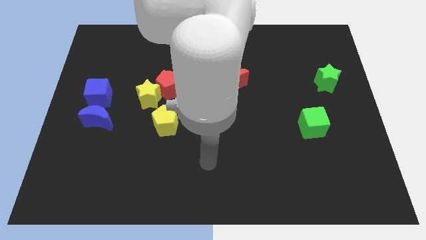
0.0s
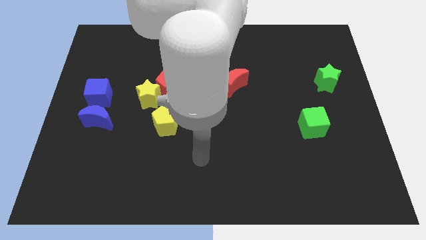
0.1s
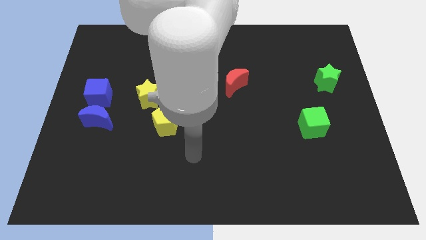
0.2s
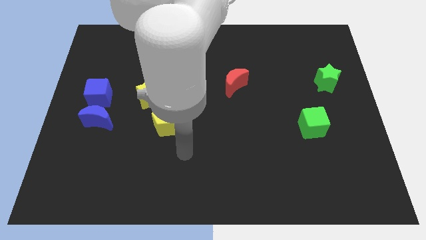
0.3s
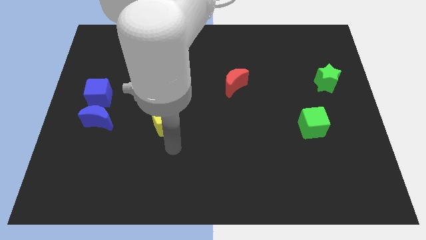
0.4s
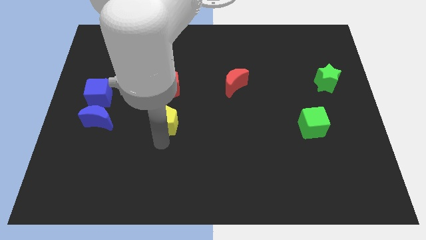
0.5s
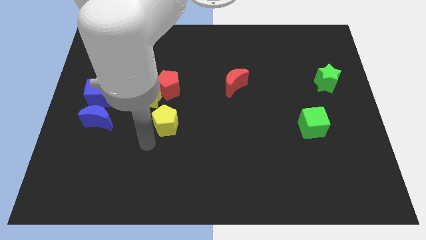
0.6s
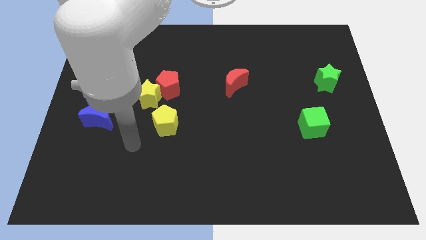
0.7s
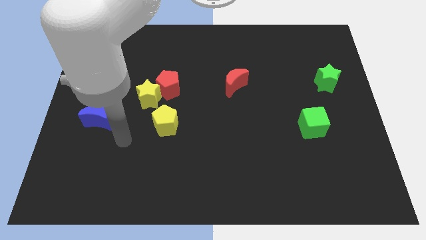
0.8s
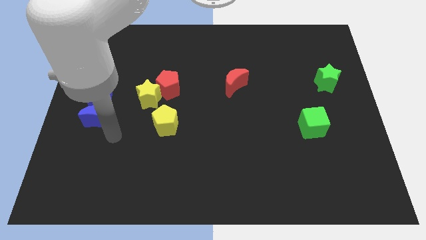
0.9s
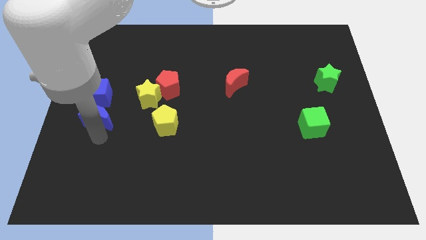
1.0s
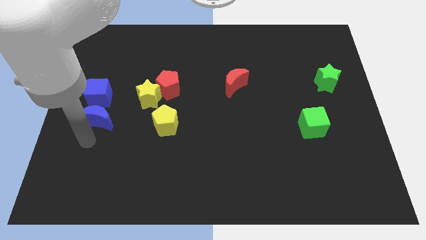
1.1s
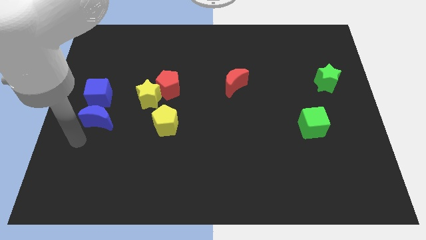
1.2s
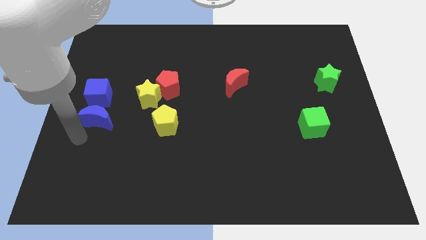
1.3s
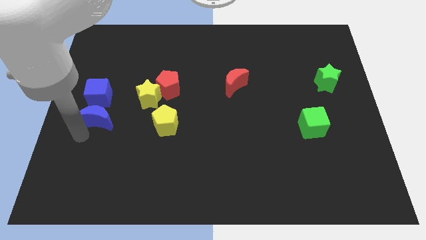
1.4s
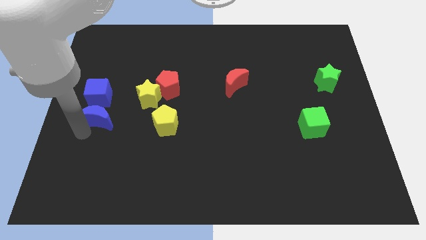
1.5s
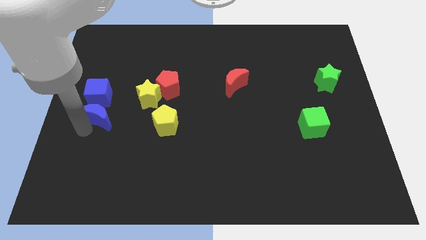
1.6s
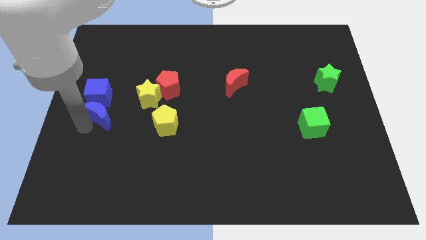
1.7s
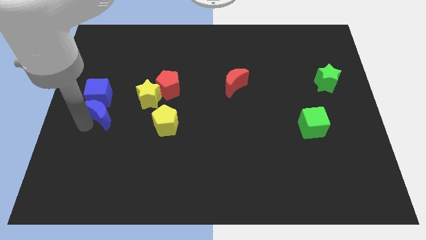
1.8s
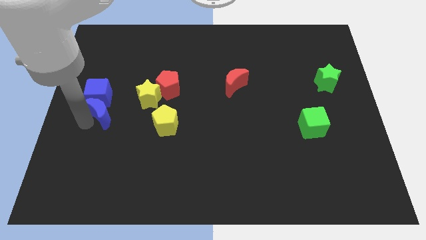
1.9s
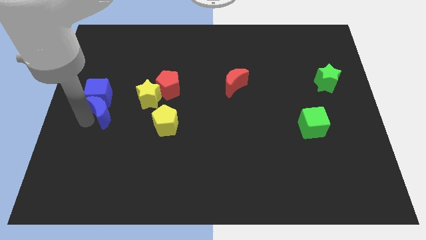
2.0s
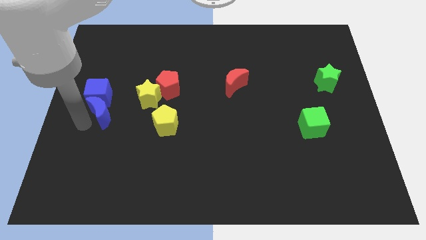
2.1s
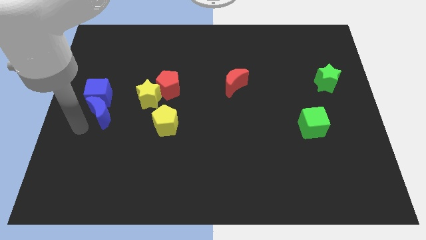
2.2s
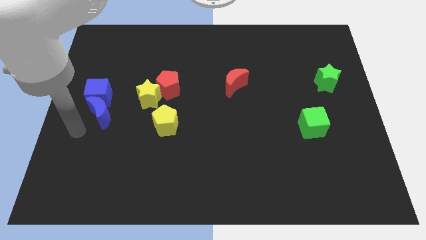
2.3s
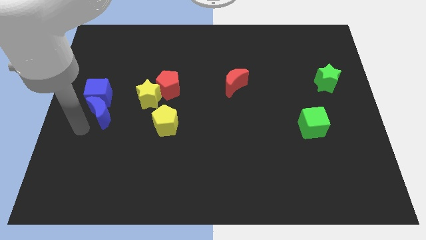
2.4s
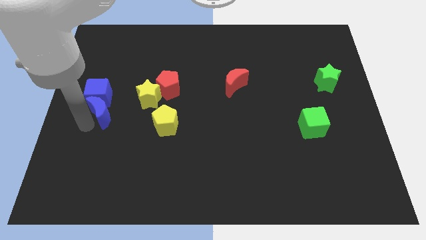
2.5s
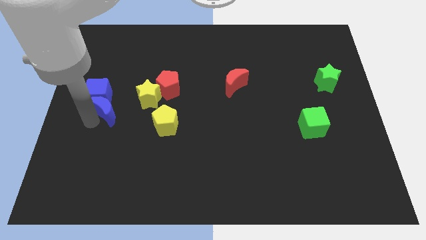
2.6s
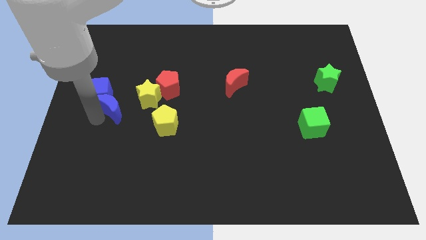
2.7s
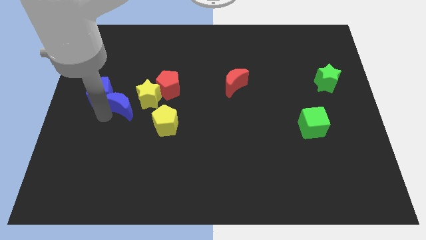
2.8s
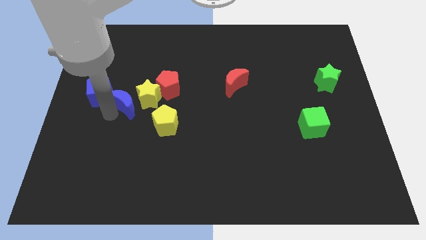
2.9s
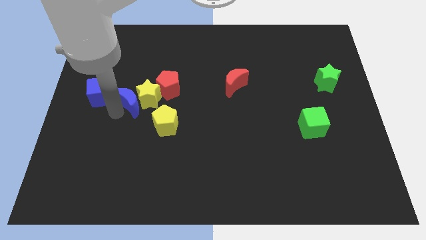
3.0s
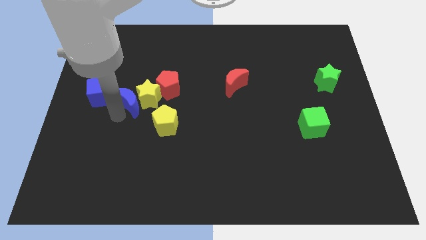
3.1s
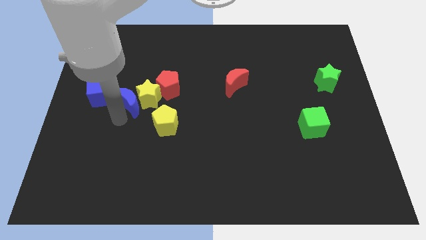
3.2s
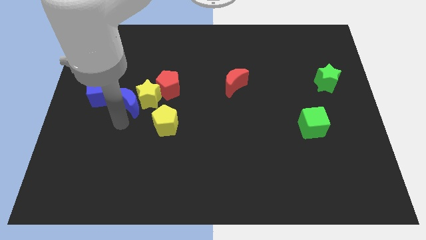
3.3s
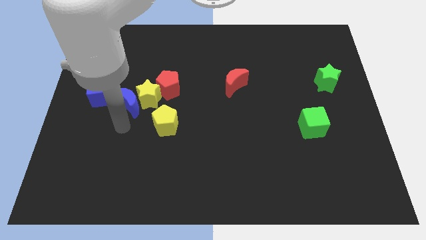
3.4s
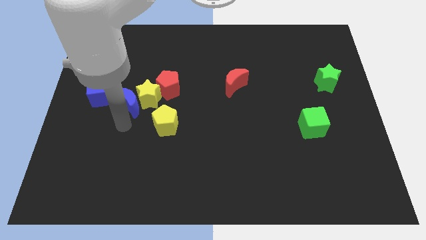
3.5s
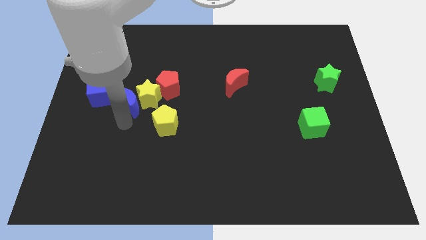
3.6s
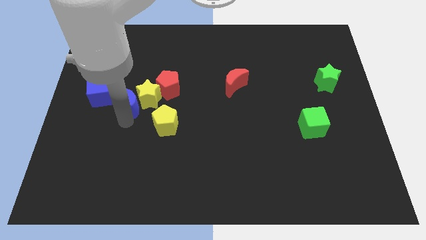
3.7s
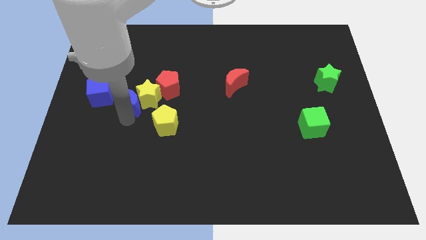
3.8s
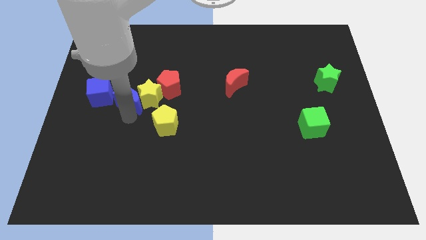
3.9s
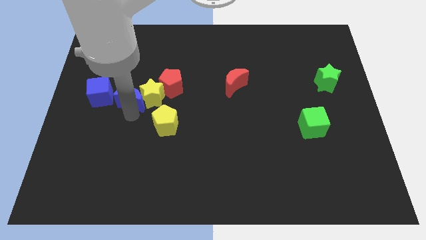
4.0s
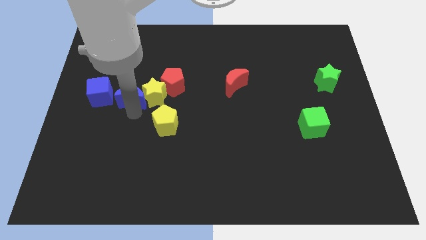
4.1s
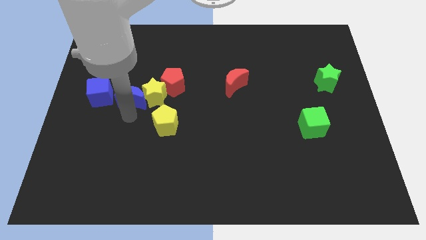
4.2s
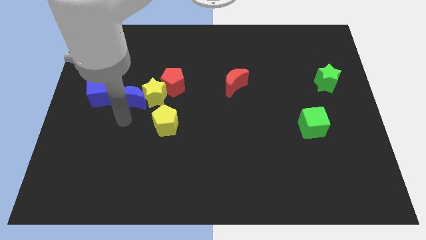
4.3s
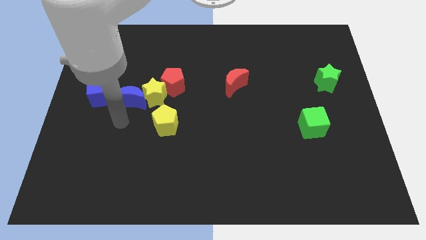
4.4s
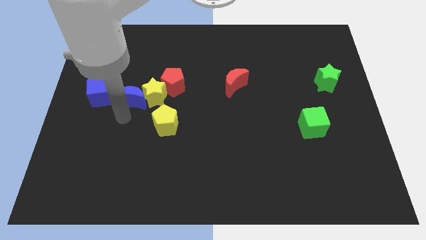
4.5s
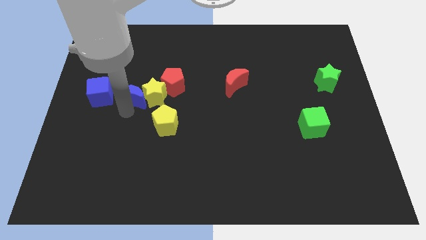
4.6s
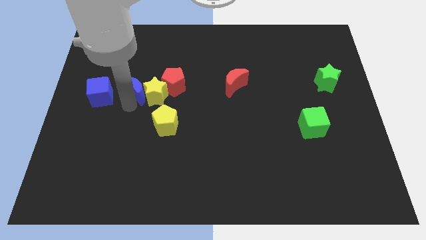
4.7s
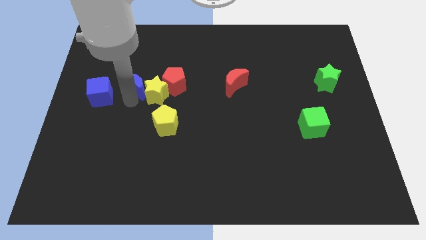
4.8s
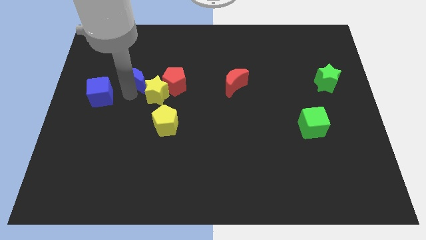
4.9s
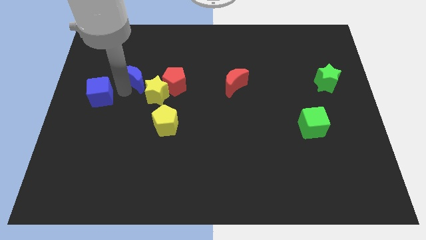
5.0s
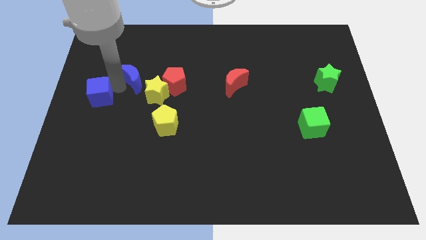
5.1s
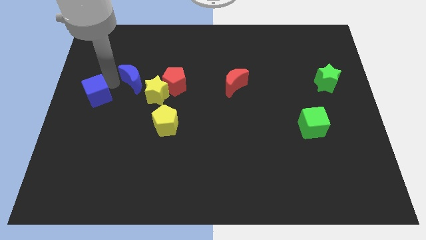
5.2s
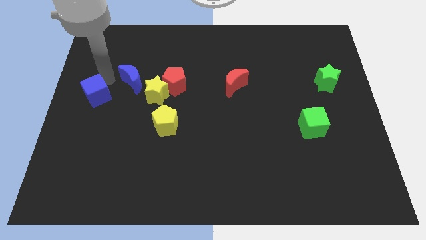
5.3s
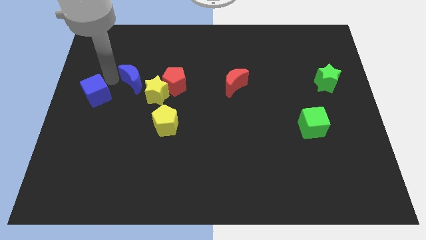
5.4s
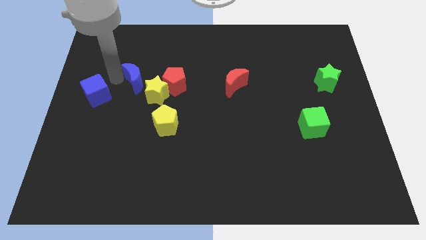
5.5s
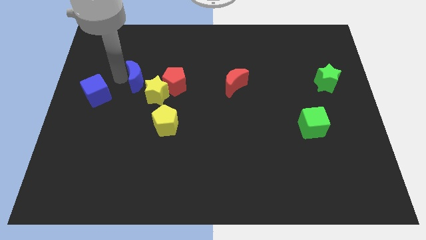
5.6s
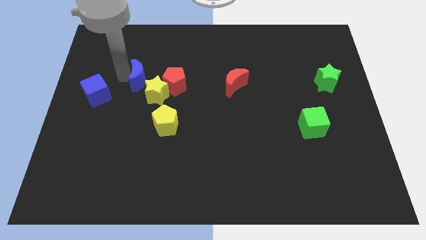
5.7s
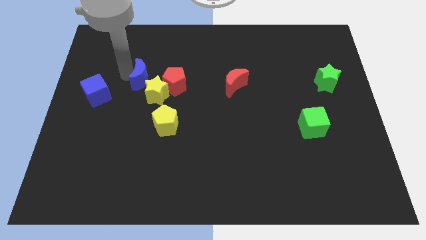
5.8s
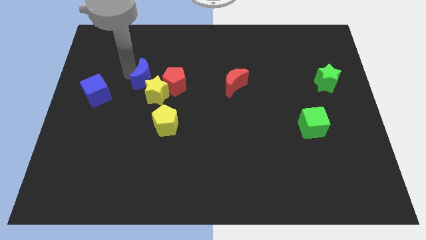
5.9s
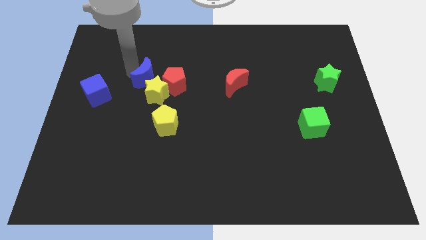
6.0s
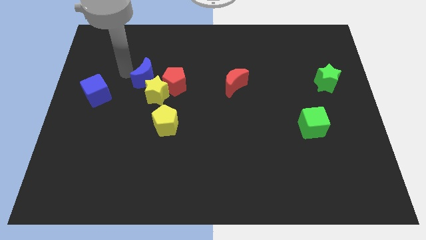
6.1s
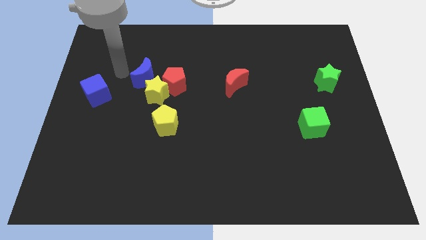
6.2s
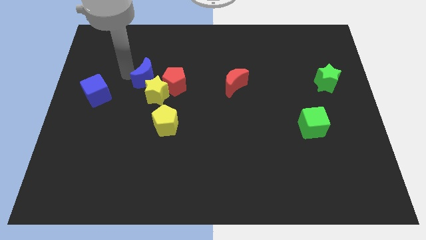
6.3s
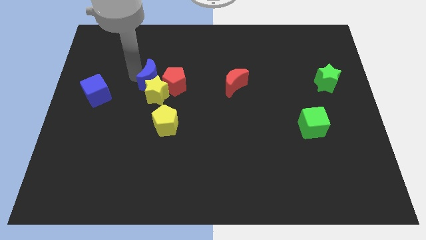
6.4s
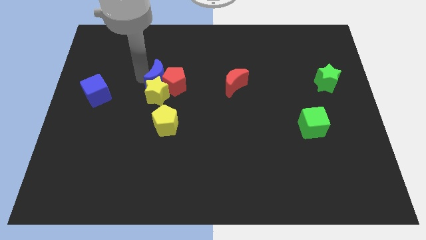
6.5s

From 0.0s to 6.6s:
put the blue moon to the red pentagon

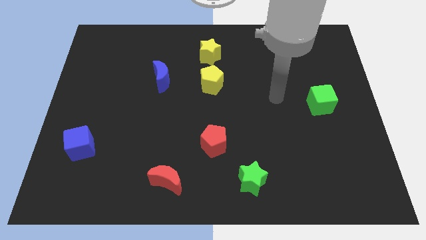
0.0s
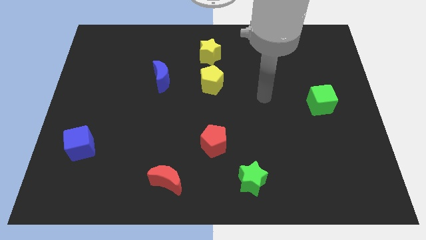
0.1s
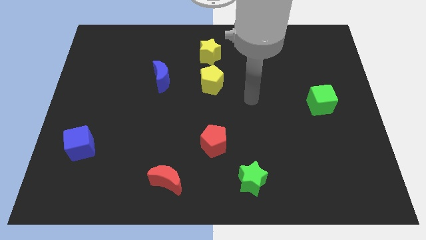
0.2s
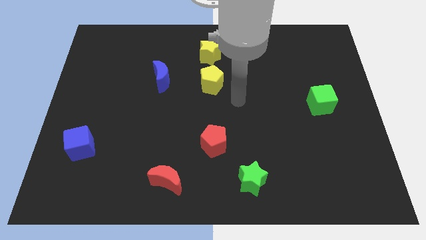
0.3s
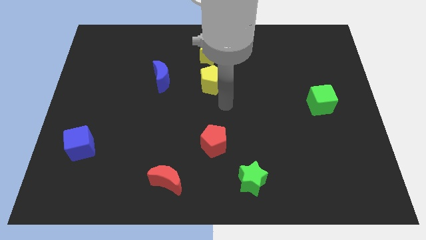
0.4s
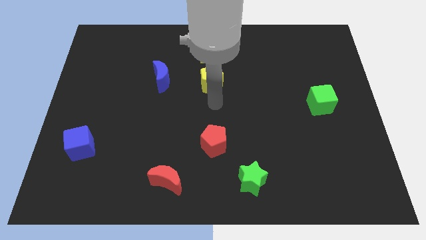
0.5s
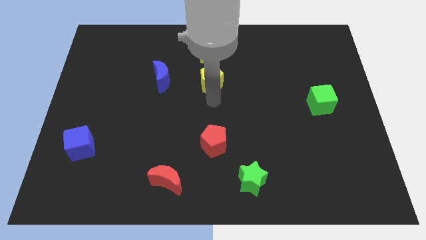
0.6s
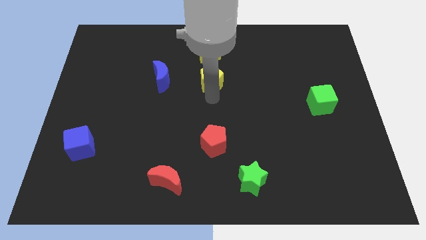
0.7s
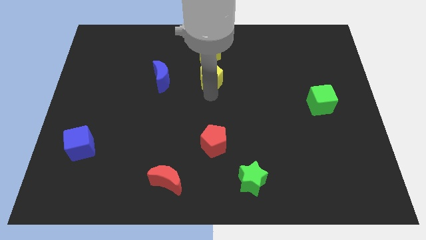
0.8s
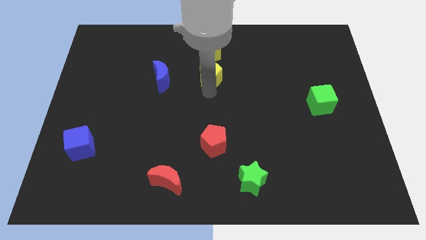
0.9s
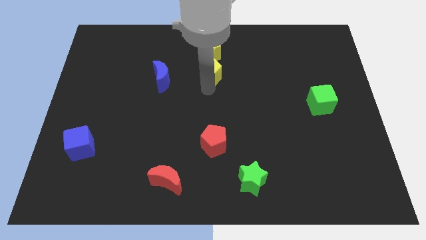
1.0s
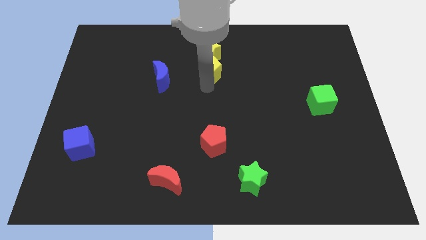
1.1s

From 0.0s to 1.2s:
put the yellow pentagon to the yellow star
